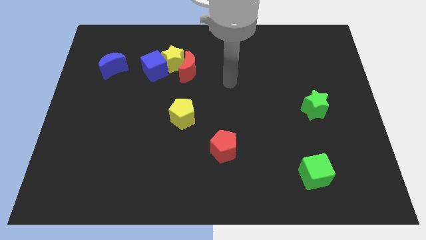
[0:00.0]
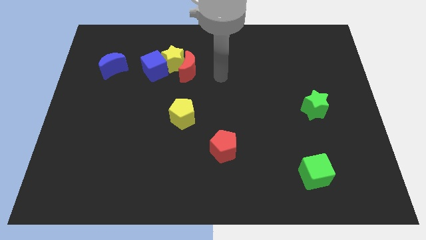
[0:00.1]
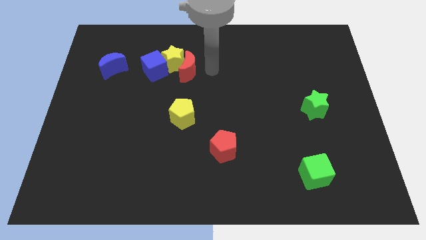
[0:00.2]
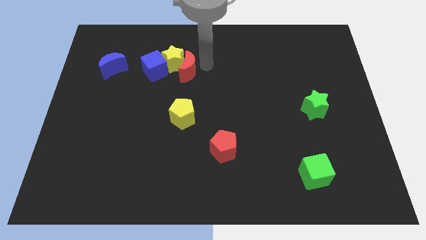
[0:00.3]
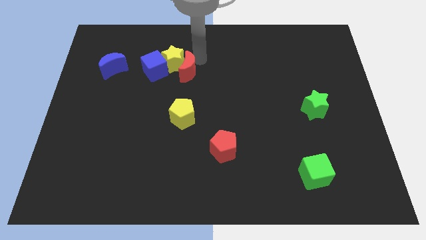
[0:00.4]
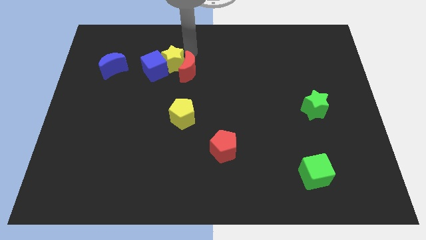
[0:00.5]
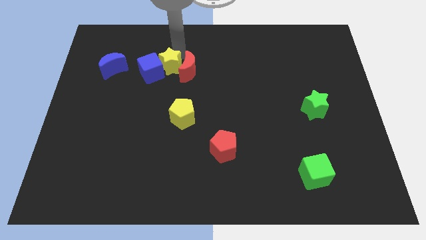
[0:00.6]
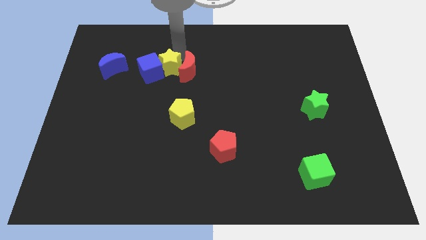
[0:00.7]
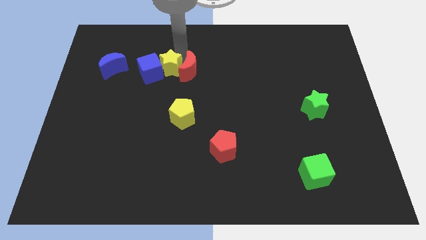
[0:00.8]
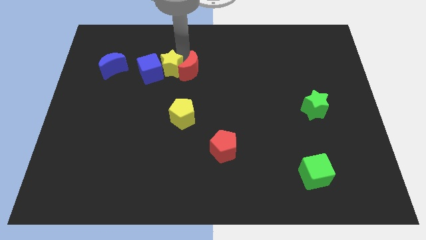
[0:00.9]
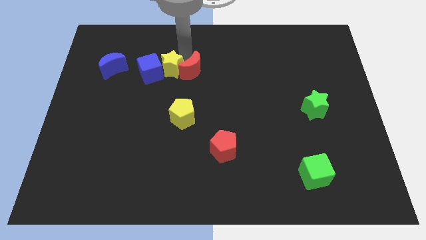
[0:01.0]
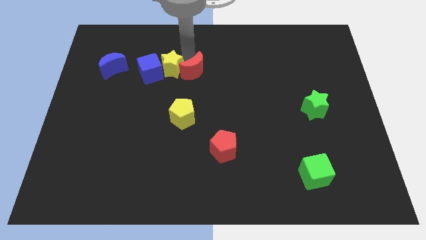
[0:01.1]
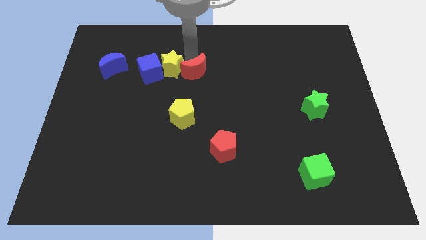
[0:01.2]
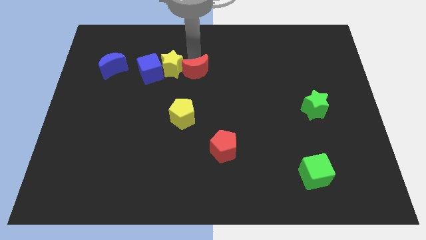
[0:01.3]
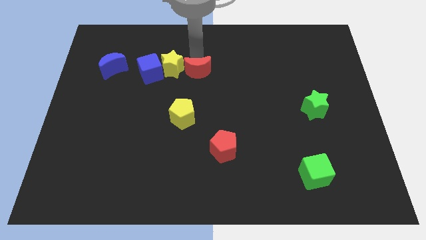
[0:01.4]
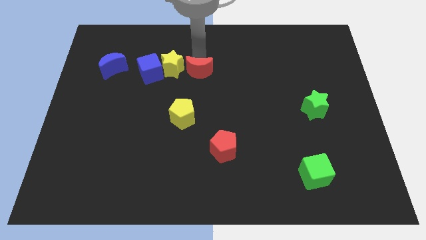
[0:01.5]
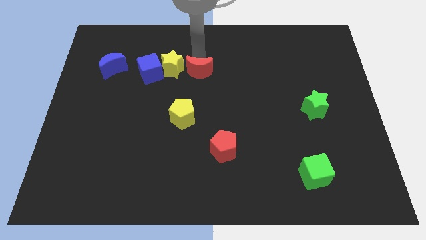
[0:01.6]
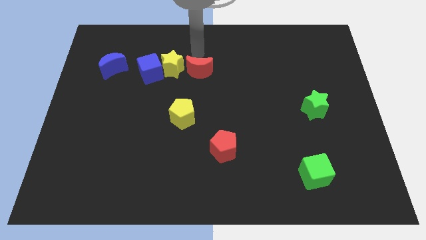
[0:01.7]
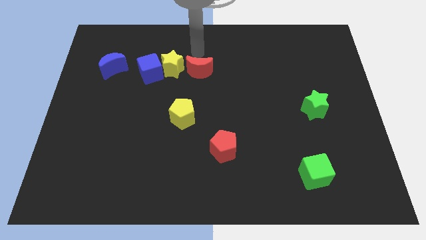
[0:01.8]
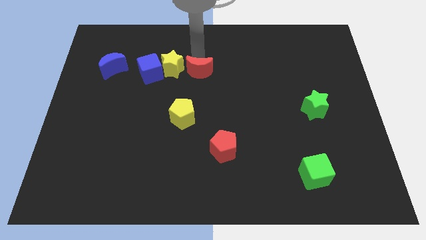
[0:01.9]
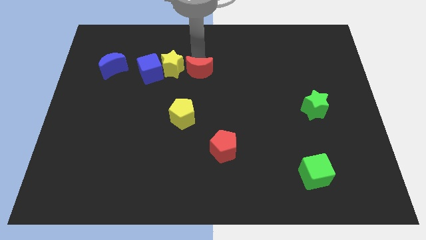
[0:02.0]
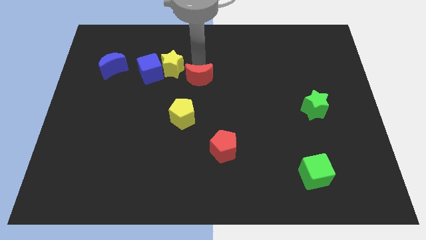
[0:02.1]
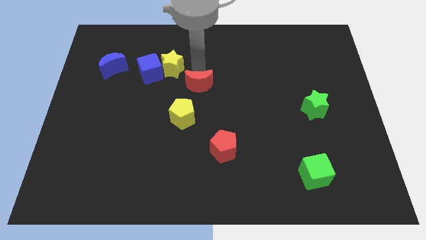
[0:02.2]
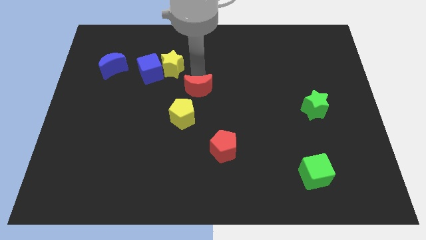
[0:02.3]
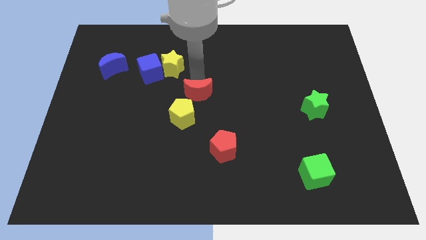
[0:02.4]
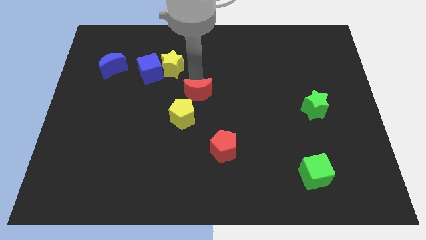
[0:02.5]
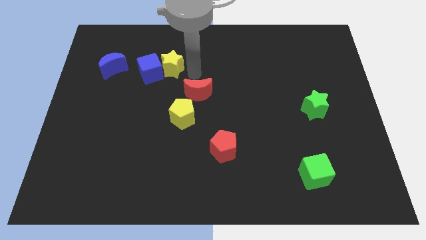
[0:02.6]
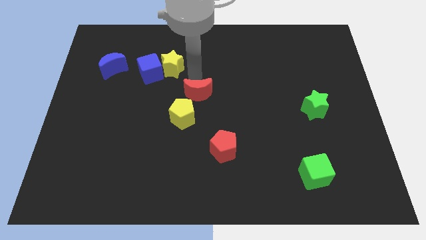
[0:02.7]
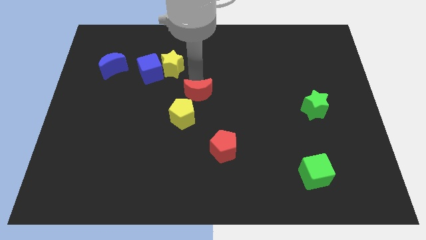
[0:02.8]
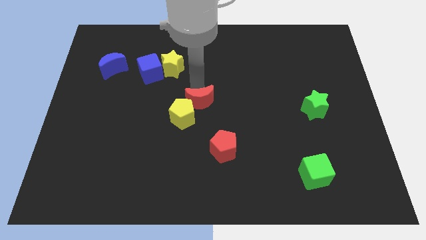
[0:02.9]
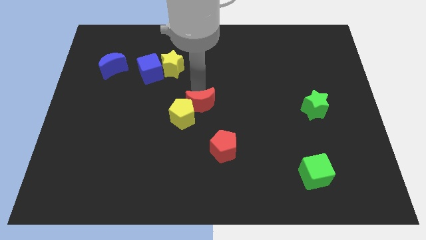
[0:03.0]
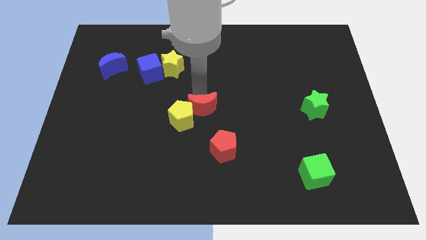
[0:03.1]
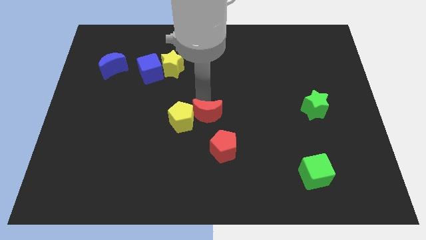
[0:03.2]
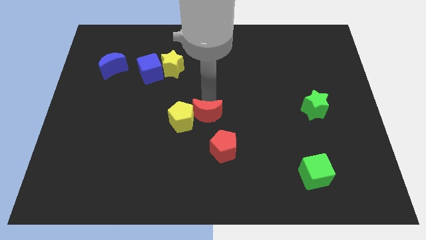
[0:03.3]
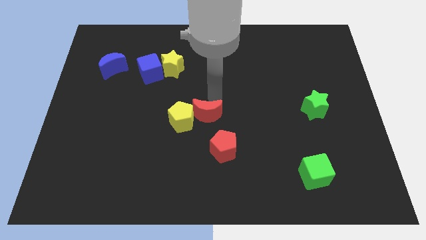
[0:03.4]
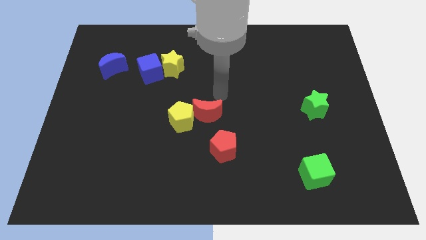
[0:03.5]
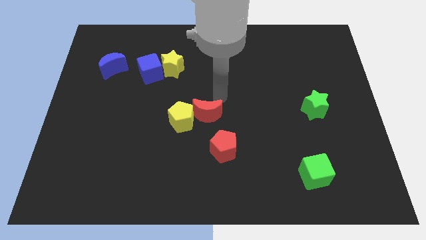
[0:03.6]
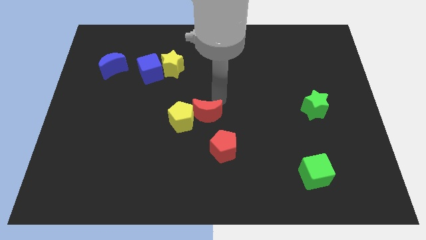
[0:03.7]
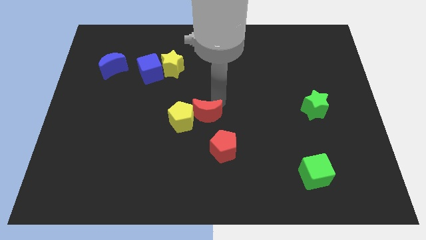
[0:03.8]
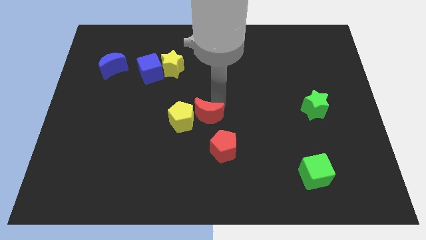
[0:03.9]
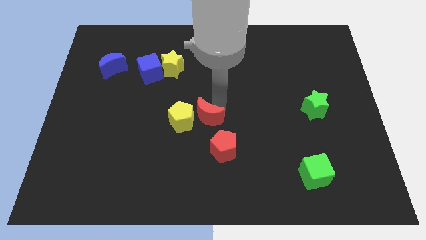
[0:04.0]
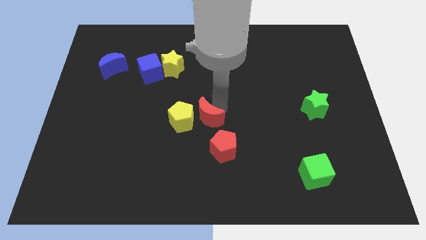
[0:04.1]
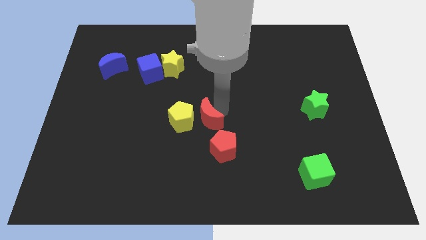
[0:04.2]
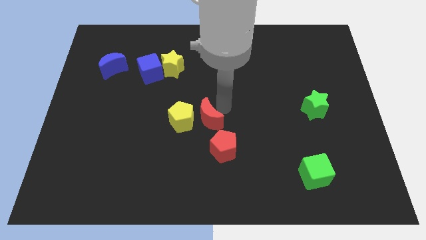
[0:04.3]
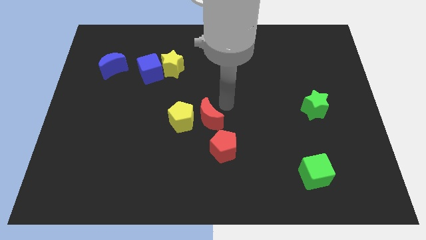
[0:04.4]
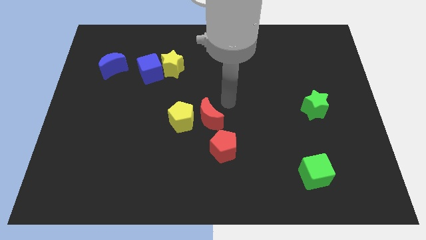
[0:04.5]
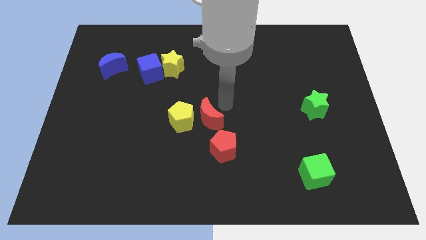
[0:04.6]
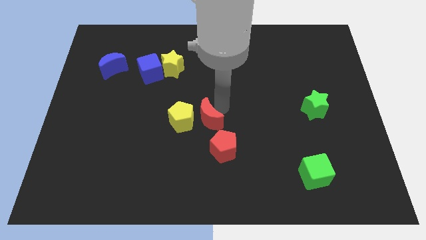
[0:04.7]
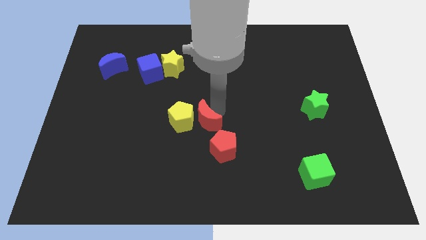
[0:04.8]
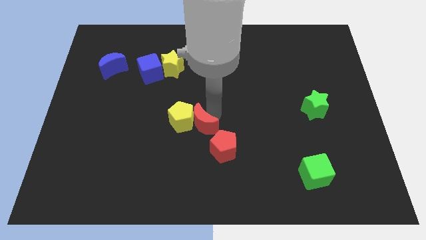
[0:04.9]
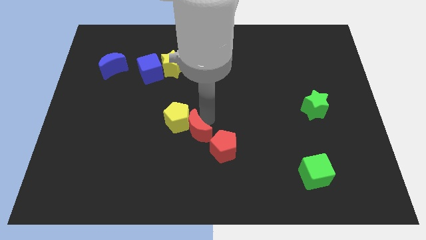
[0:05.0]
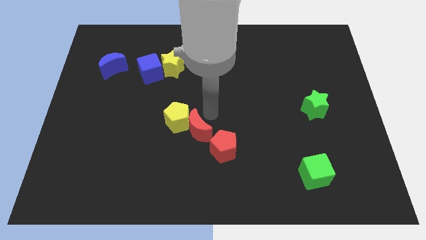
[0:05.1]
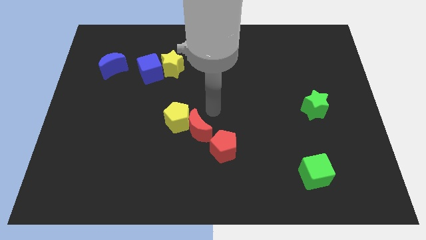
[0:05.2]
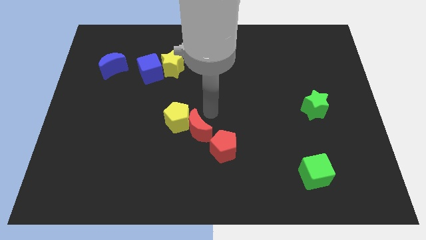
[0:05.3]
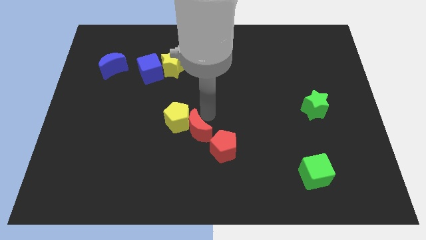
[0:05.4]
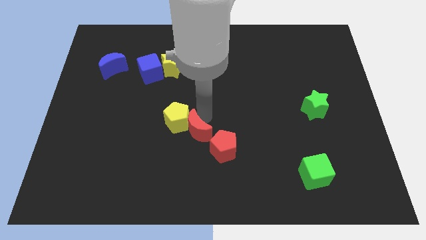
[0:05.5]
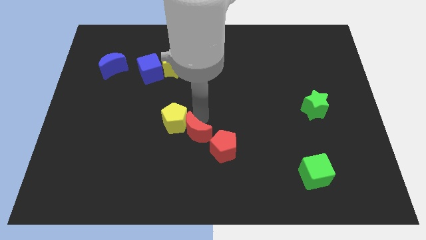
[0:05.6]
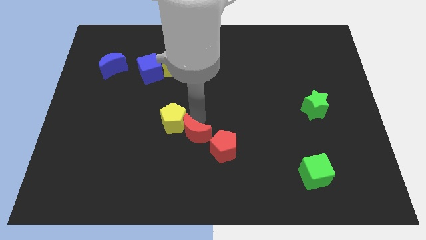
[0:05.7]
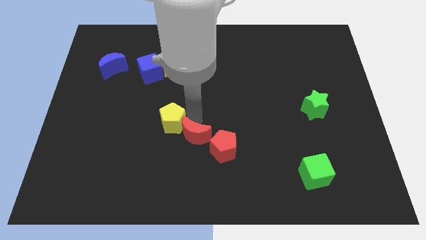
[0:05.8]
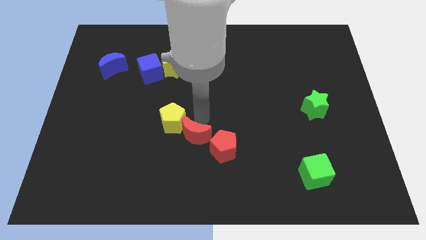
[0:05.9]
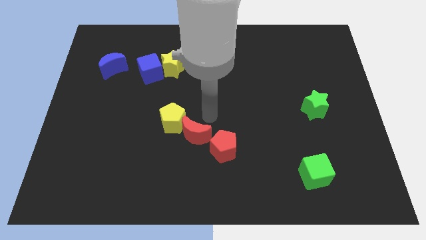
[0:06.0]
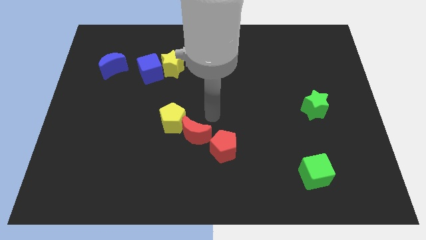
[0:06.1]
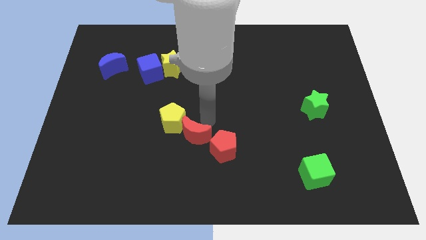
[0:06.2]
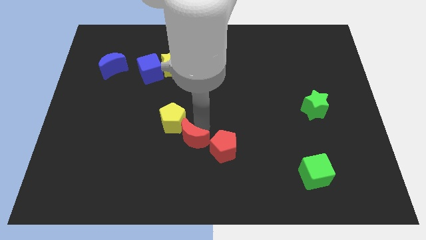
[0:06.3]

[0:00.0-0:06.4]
move the red moon to the bottom side of the yellow pentagon

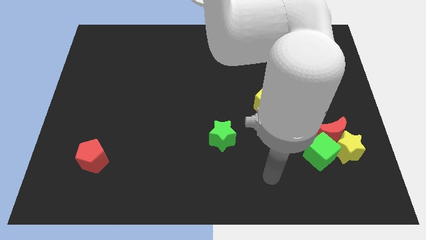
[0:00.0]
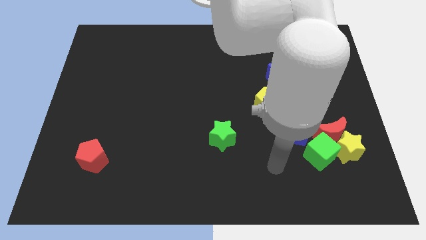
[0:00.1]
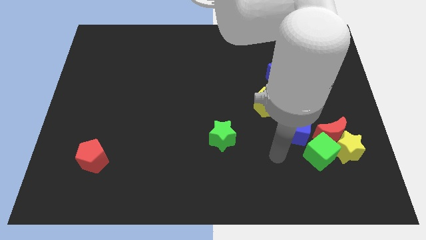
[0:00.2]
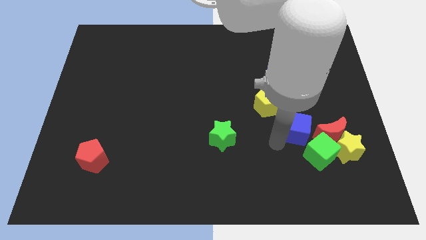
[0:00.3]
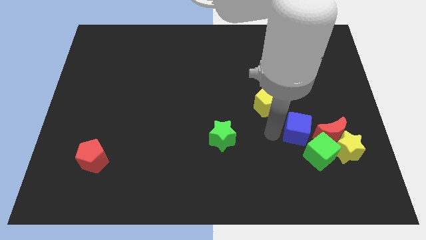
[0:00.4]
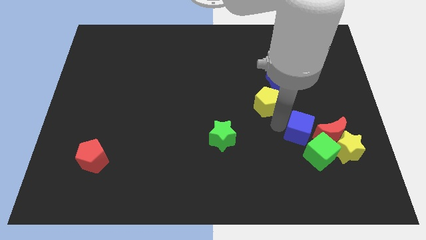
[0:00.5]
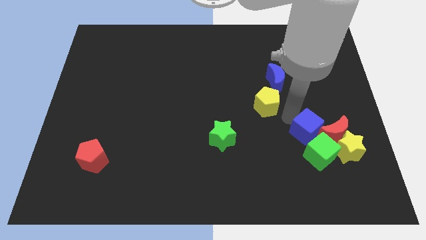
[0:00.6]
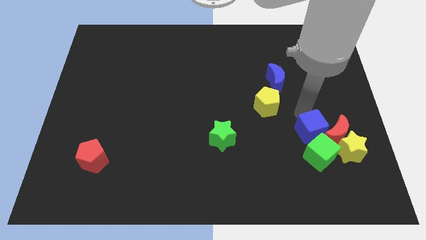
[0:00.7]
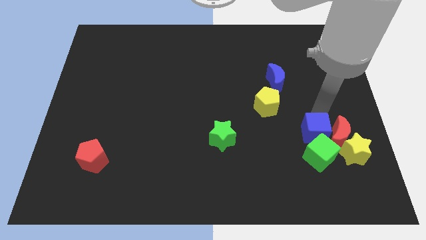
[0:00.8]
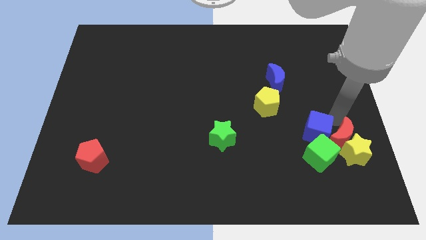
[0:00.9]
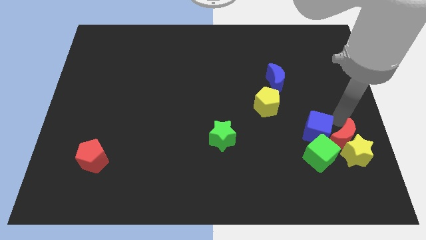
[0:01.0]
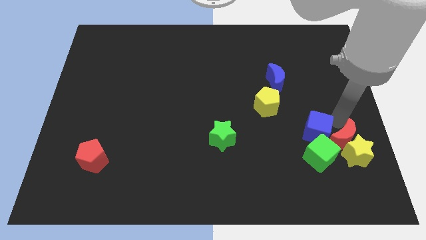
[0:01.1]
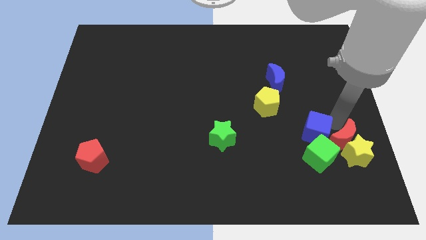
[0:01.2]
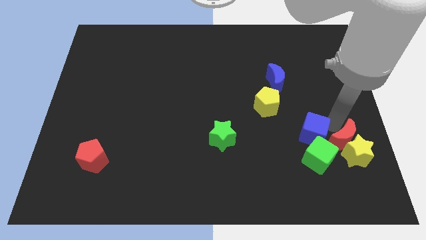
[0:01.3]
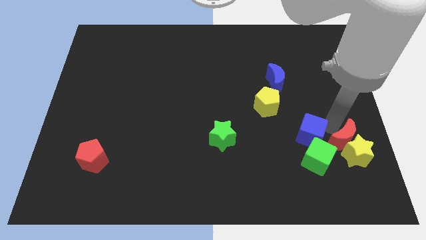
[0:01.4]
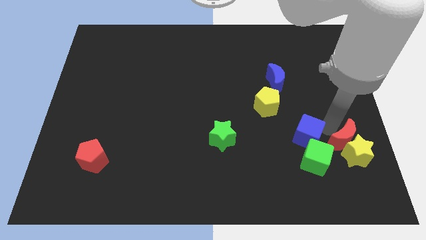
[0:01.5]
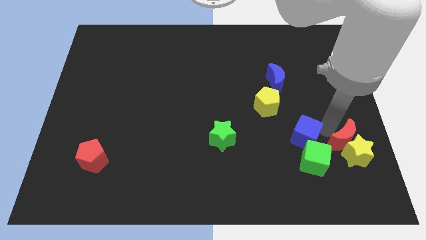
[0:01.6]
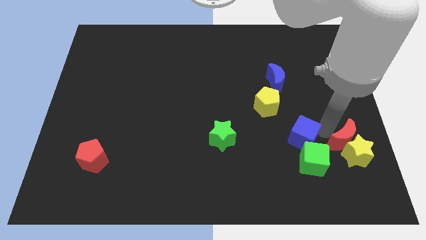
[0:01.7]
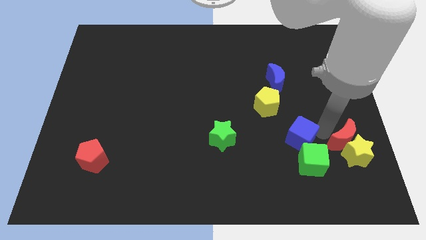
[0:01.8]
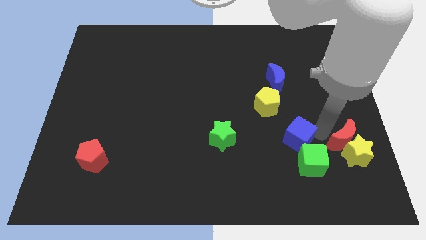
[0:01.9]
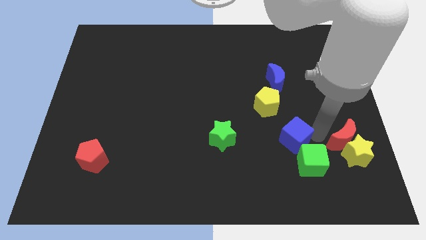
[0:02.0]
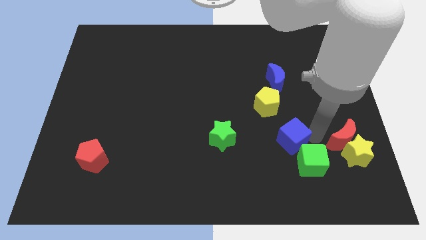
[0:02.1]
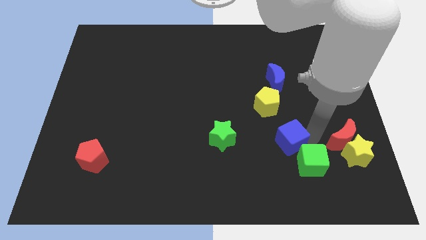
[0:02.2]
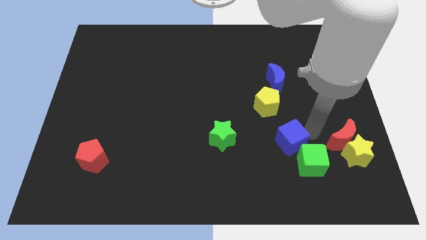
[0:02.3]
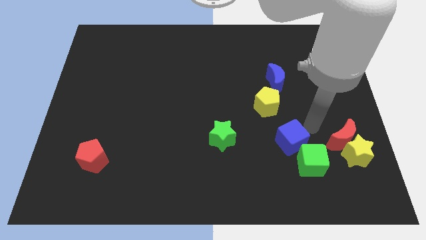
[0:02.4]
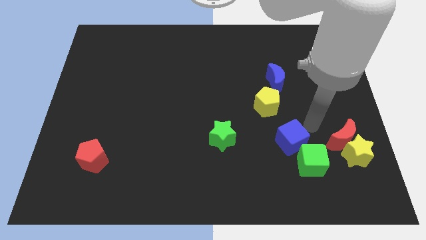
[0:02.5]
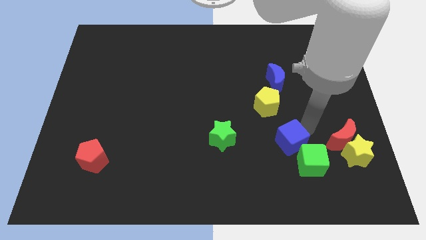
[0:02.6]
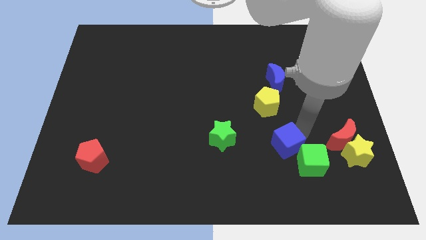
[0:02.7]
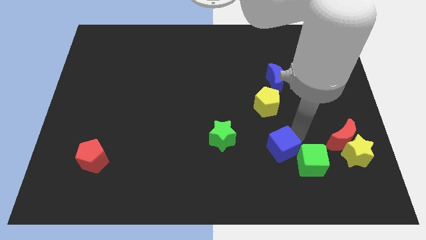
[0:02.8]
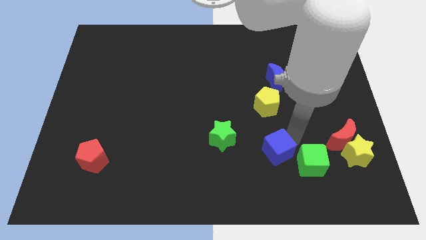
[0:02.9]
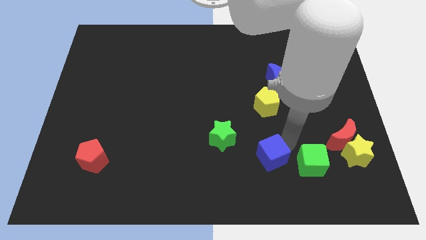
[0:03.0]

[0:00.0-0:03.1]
push the blue cube diagonally down and to the right of the green star
